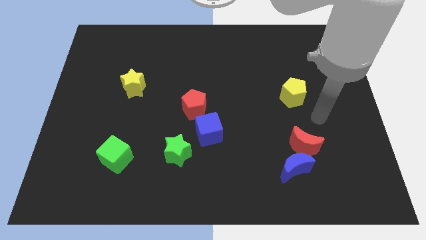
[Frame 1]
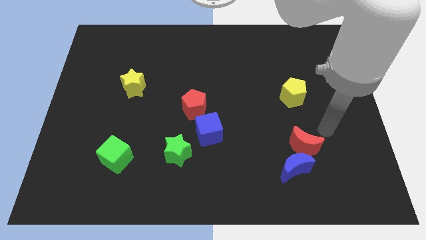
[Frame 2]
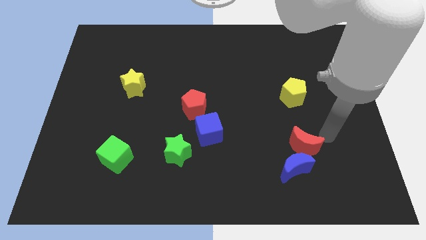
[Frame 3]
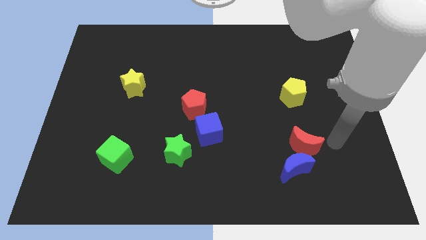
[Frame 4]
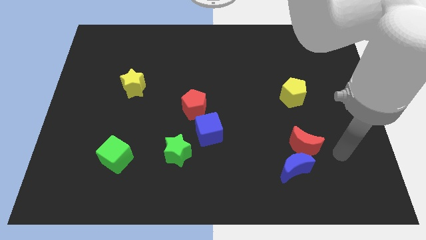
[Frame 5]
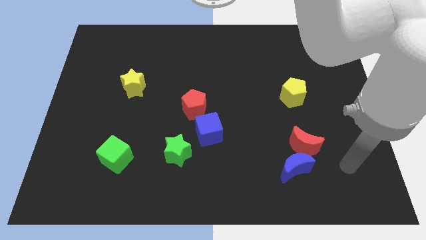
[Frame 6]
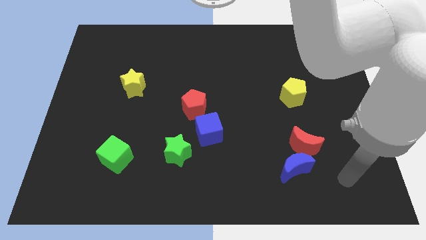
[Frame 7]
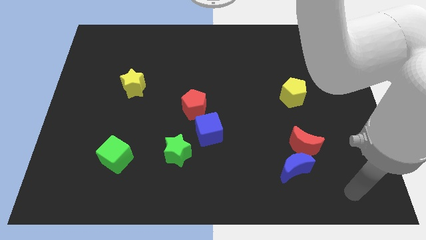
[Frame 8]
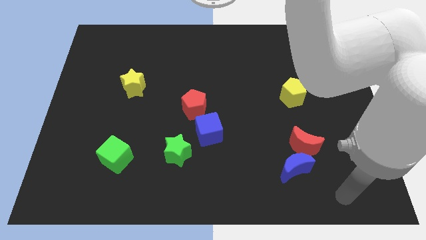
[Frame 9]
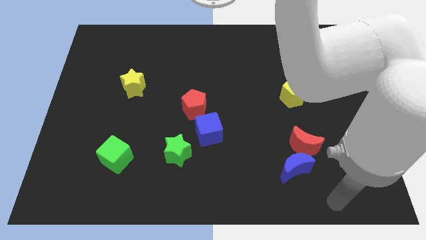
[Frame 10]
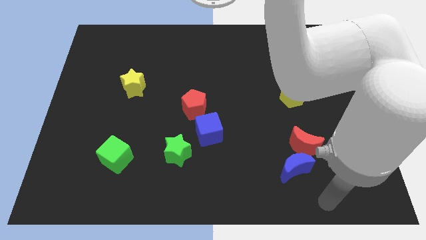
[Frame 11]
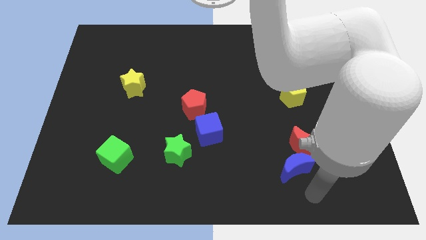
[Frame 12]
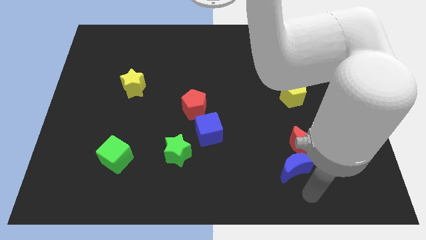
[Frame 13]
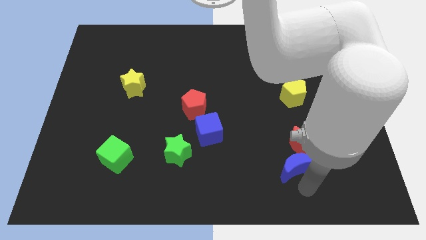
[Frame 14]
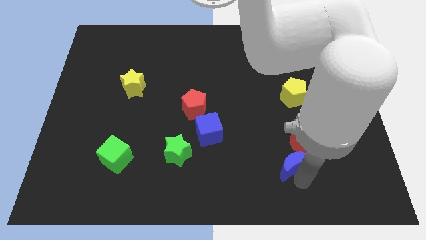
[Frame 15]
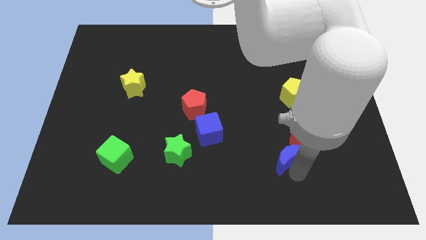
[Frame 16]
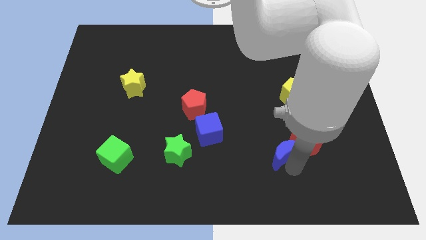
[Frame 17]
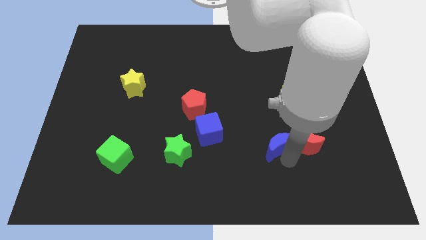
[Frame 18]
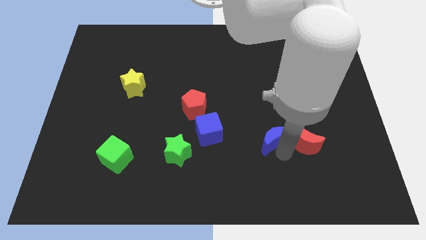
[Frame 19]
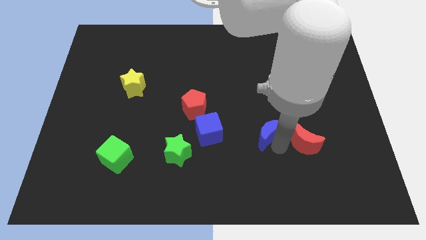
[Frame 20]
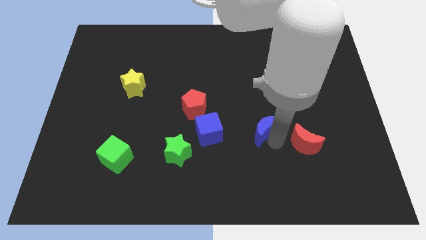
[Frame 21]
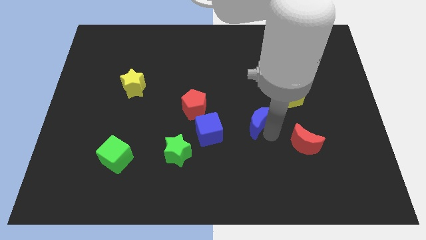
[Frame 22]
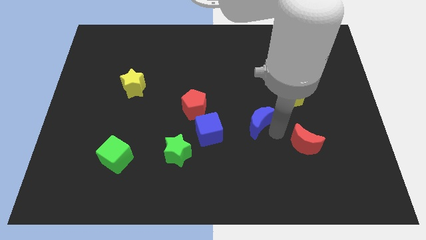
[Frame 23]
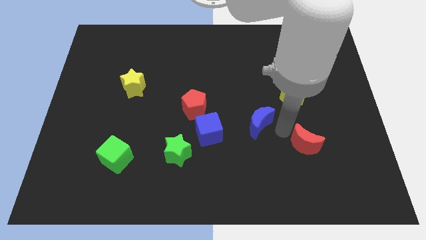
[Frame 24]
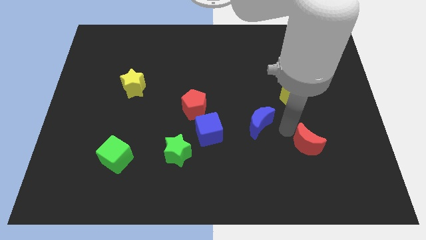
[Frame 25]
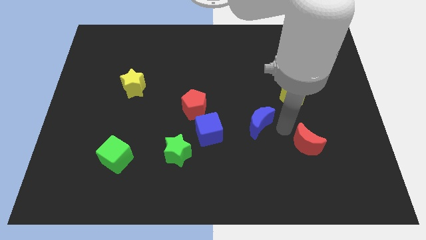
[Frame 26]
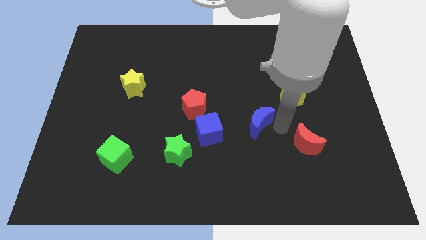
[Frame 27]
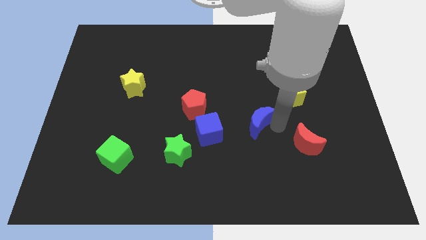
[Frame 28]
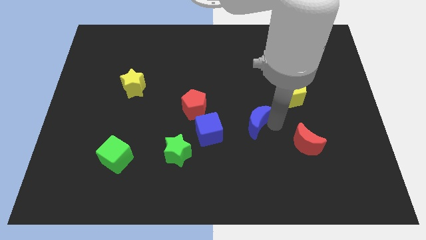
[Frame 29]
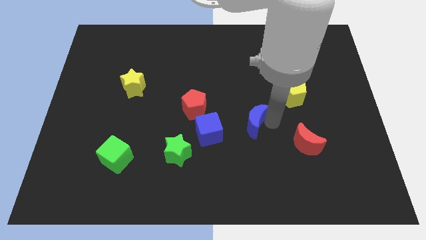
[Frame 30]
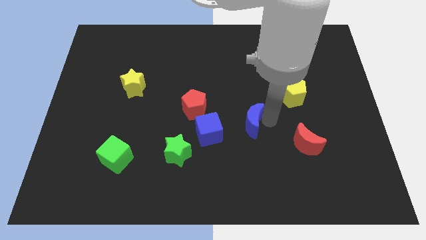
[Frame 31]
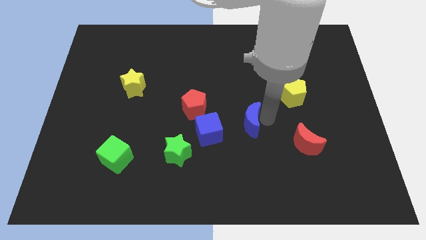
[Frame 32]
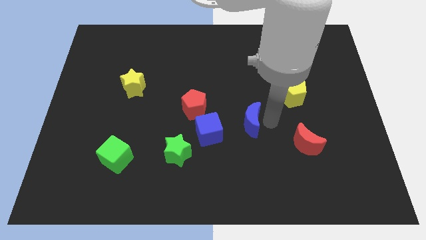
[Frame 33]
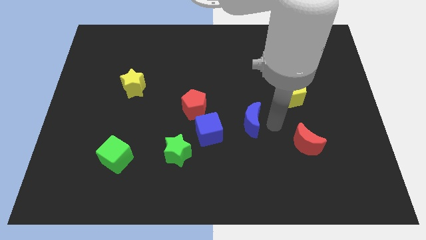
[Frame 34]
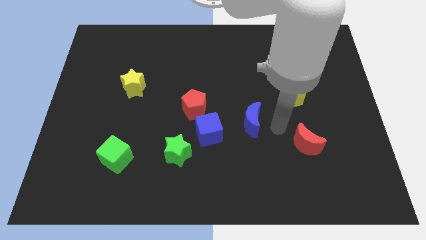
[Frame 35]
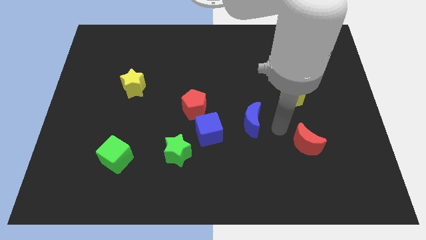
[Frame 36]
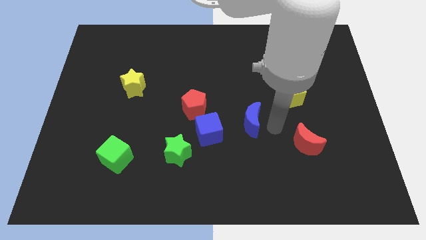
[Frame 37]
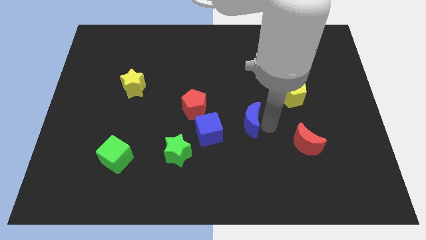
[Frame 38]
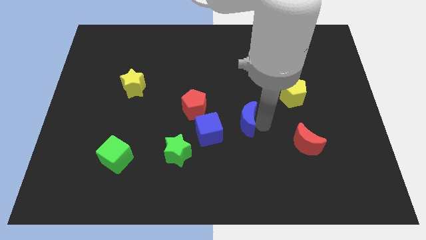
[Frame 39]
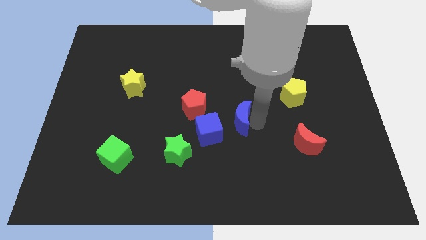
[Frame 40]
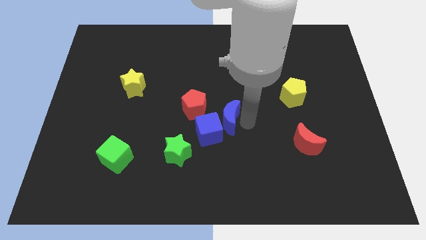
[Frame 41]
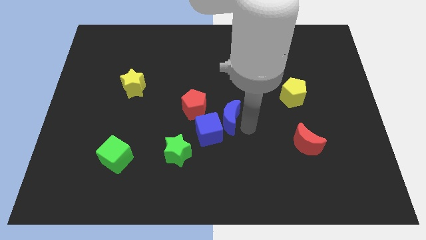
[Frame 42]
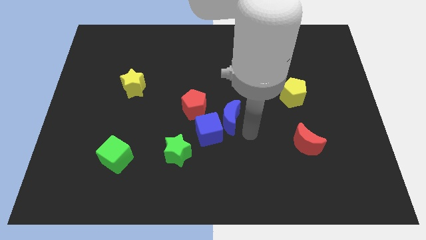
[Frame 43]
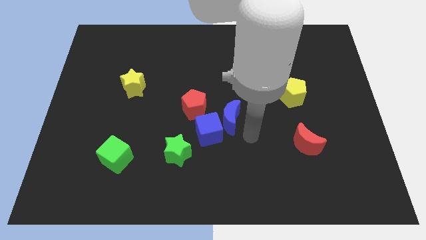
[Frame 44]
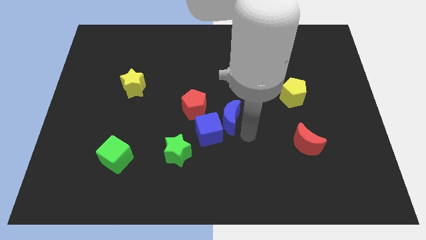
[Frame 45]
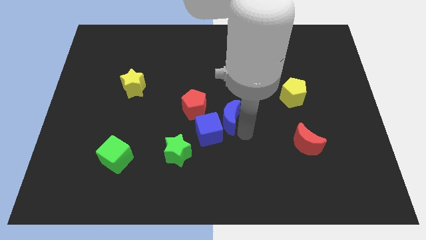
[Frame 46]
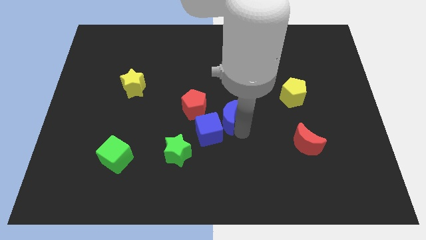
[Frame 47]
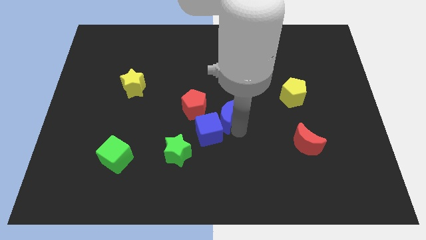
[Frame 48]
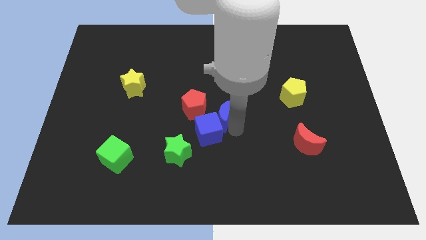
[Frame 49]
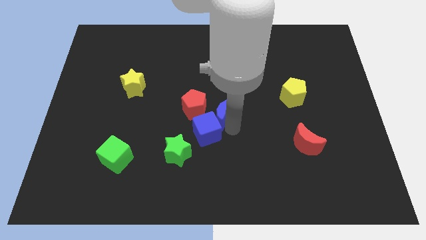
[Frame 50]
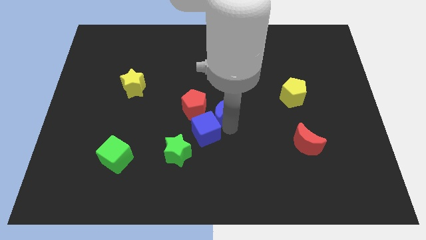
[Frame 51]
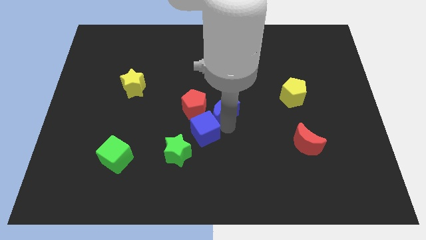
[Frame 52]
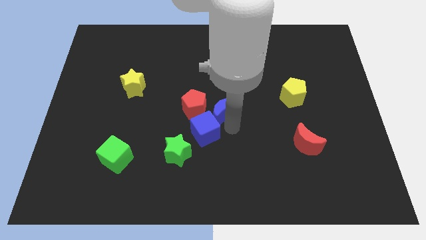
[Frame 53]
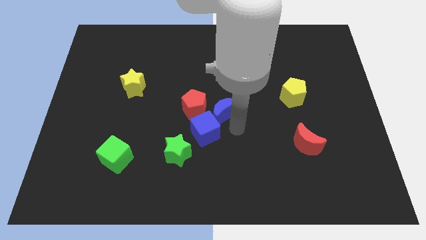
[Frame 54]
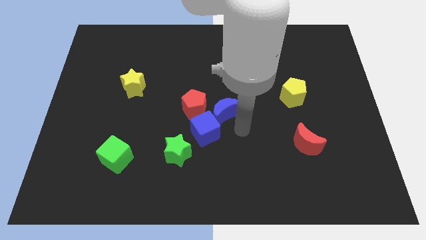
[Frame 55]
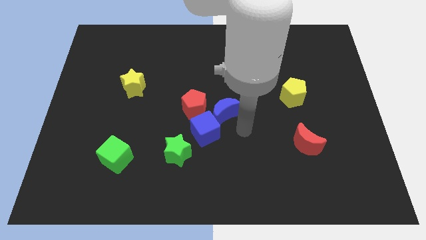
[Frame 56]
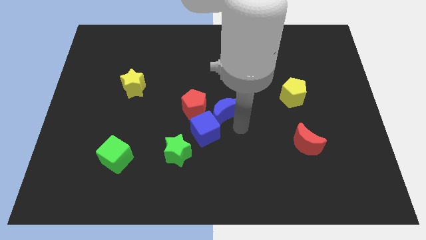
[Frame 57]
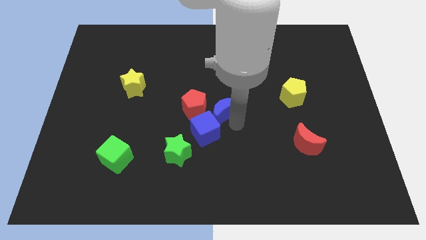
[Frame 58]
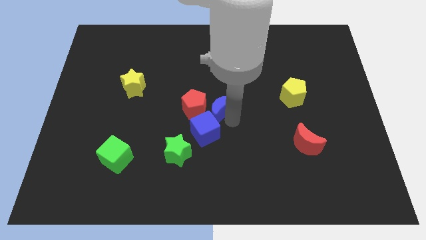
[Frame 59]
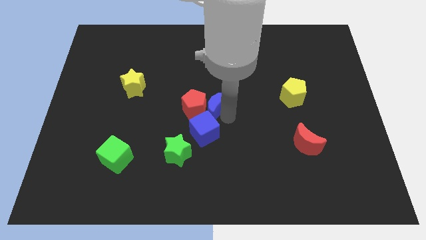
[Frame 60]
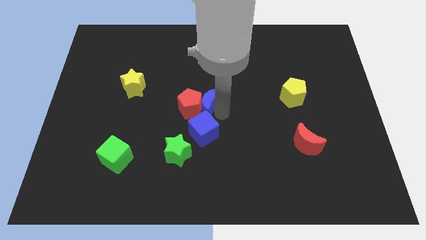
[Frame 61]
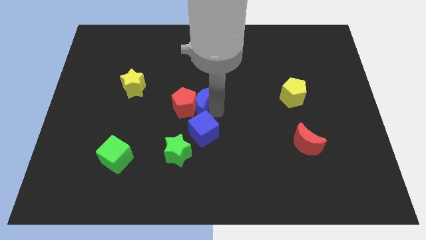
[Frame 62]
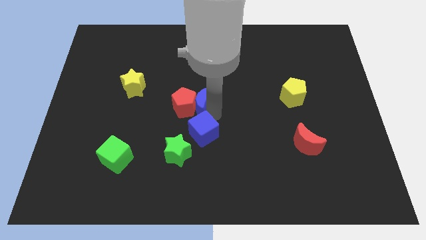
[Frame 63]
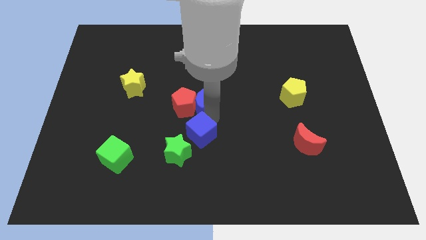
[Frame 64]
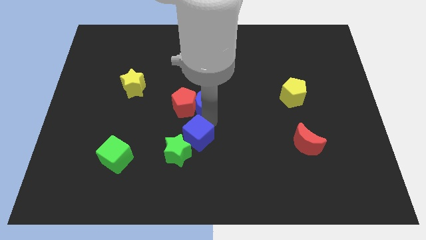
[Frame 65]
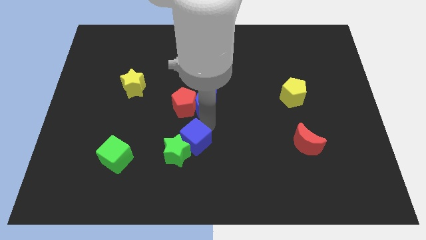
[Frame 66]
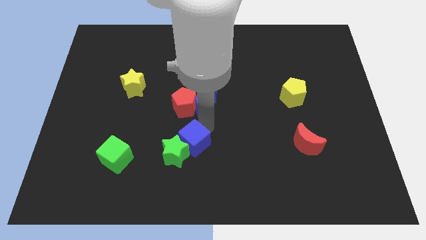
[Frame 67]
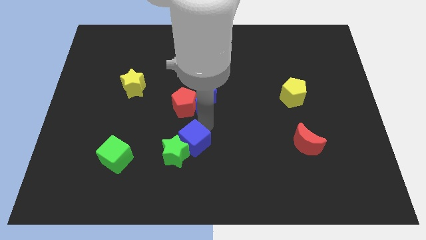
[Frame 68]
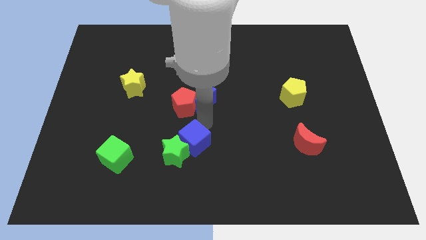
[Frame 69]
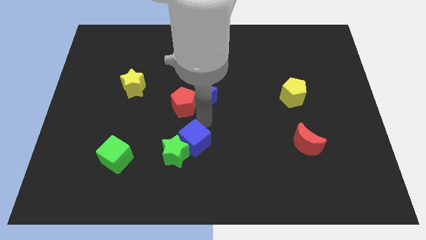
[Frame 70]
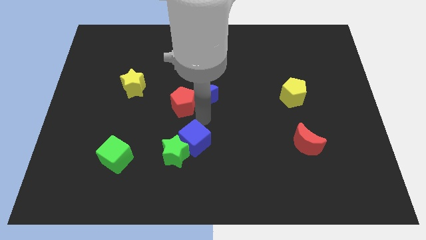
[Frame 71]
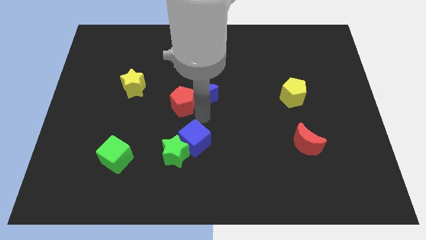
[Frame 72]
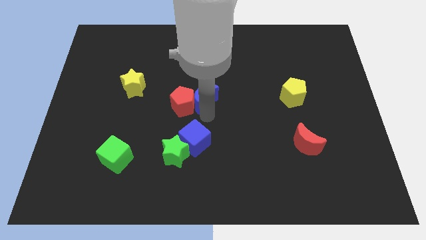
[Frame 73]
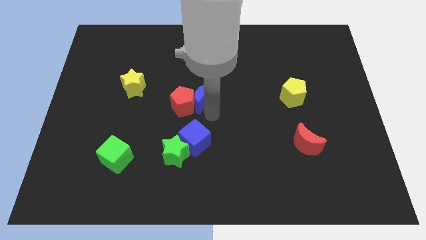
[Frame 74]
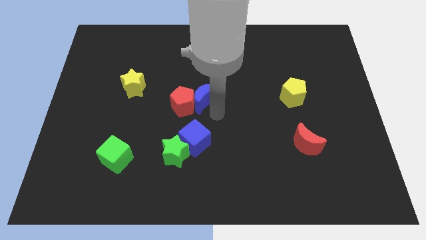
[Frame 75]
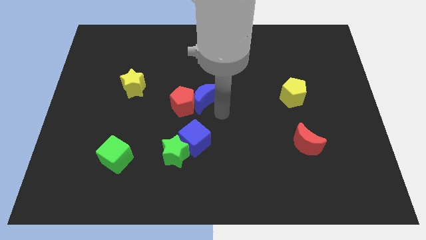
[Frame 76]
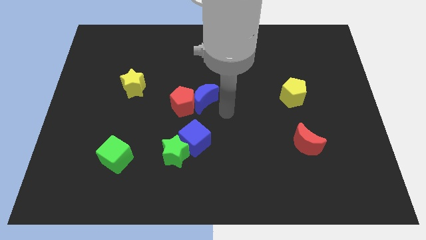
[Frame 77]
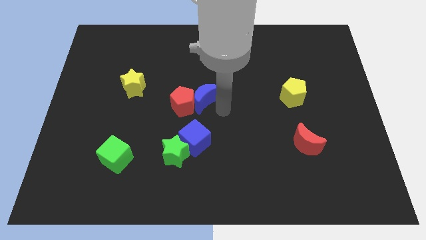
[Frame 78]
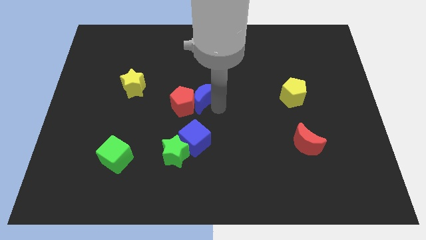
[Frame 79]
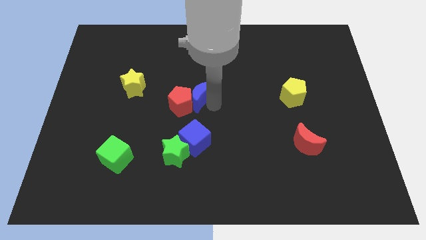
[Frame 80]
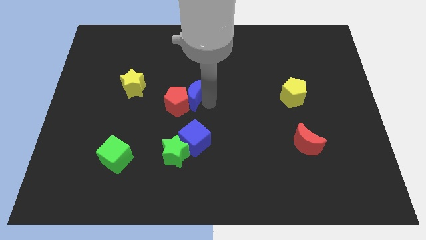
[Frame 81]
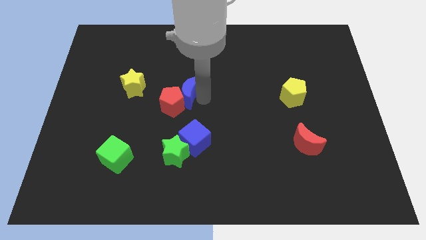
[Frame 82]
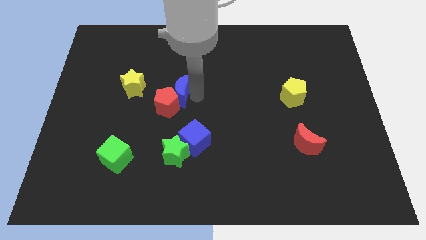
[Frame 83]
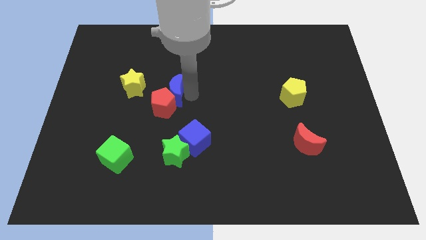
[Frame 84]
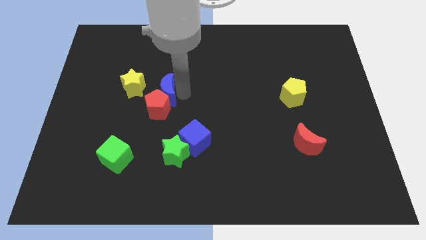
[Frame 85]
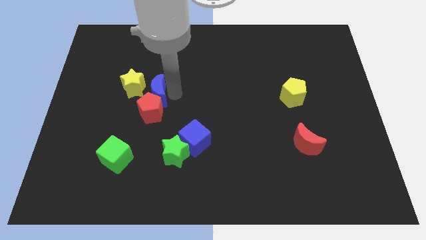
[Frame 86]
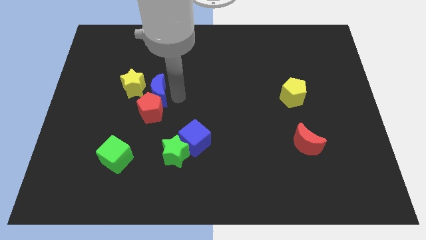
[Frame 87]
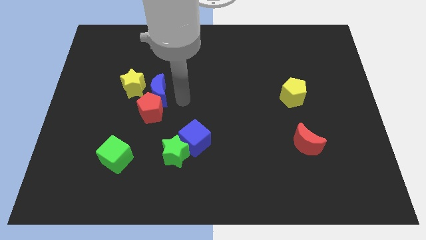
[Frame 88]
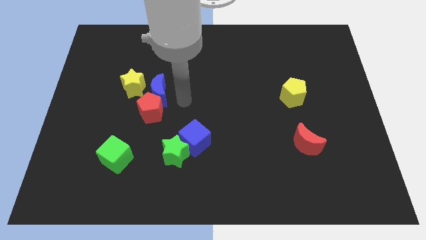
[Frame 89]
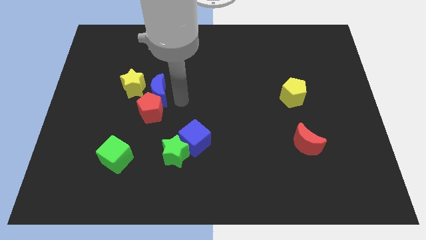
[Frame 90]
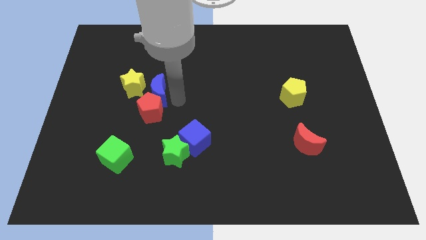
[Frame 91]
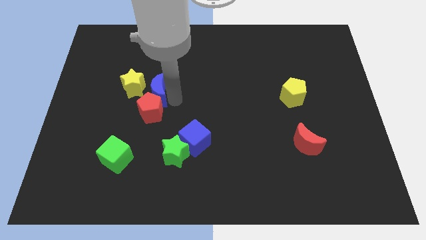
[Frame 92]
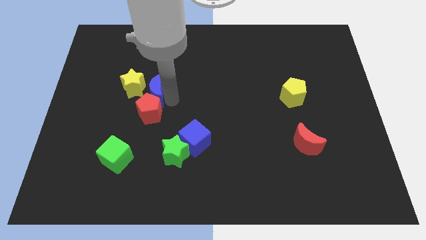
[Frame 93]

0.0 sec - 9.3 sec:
slide the blue moon close to the yellow star
